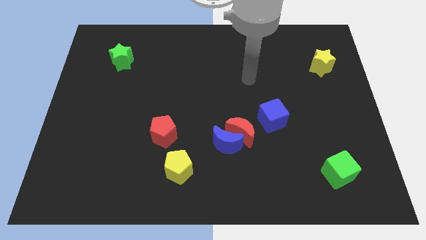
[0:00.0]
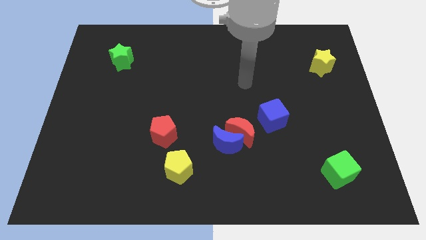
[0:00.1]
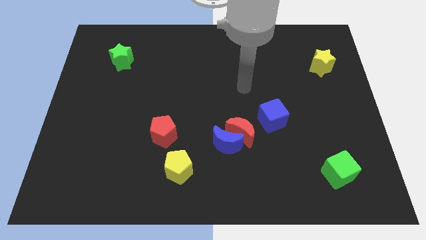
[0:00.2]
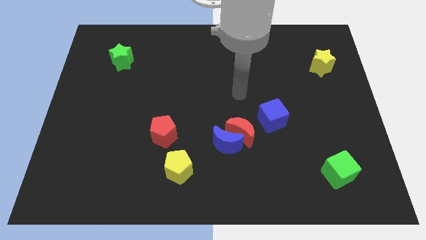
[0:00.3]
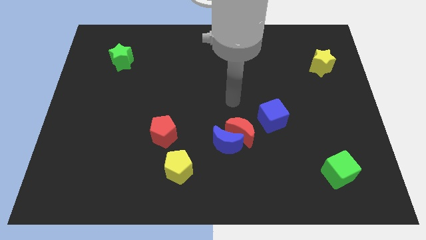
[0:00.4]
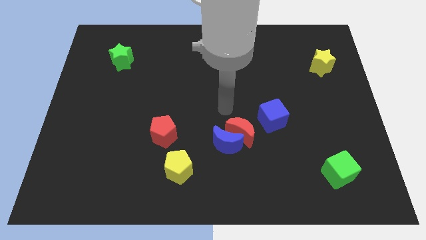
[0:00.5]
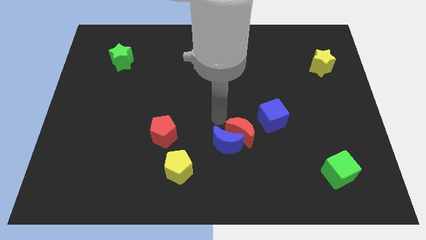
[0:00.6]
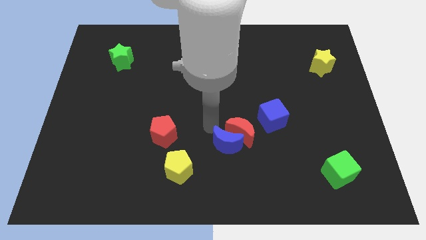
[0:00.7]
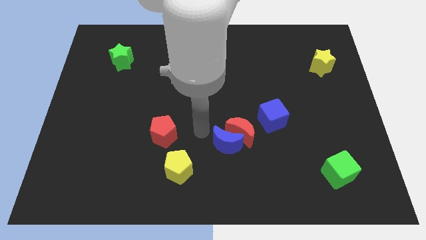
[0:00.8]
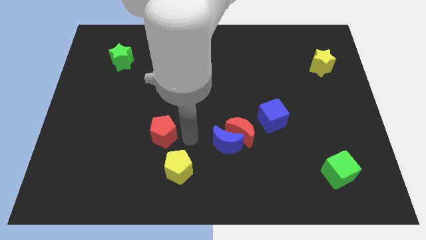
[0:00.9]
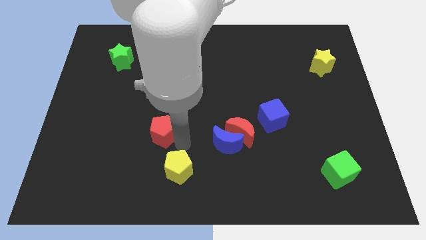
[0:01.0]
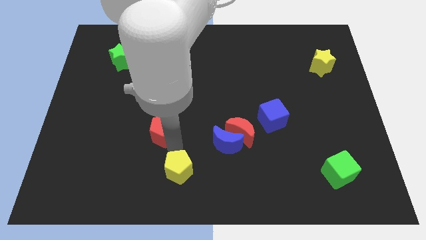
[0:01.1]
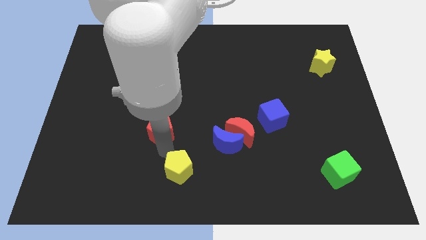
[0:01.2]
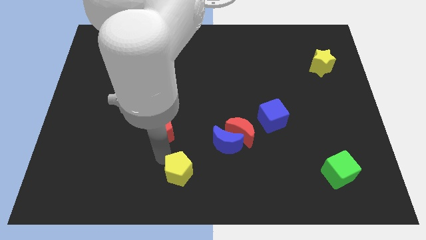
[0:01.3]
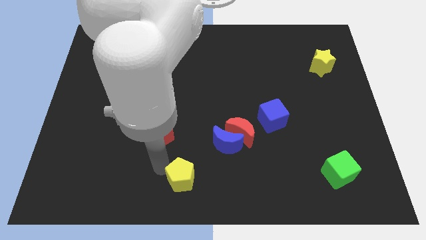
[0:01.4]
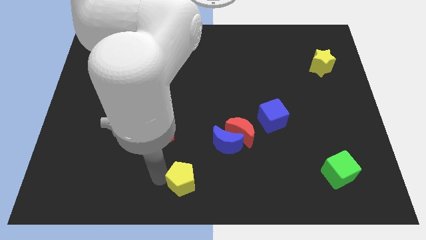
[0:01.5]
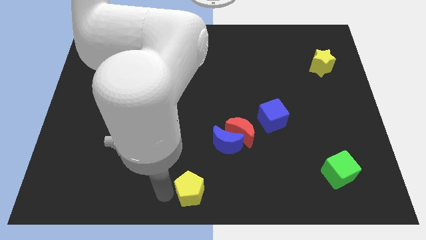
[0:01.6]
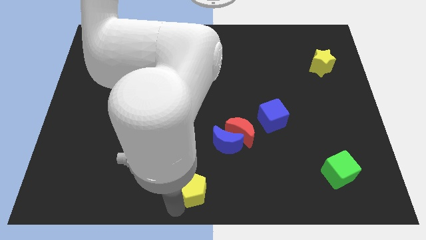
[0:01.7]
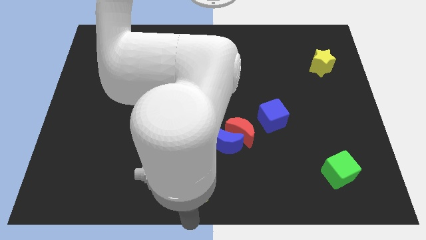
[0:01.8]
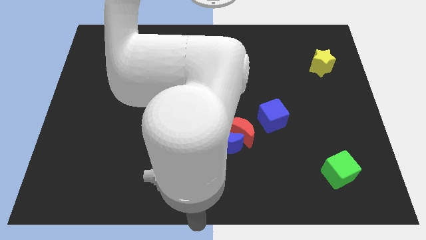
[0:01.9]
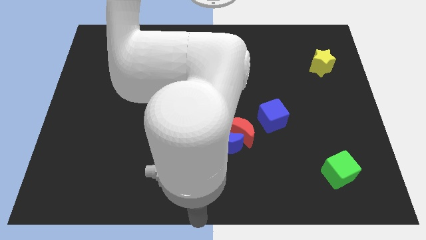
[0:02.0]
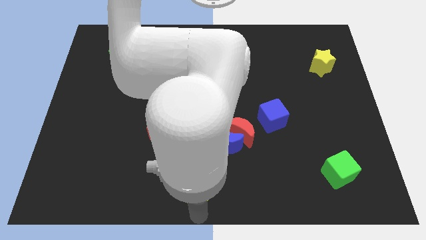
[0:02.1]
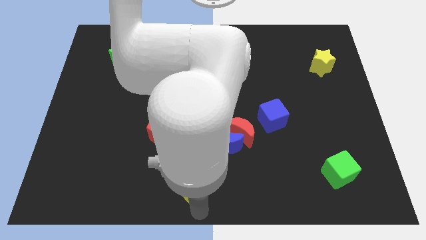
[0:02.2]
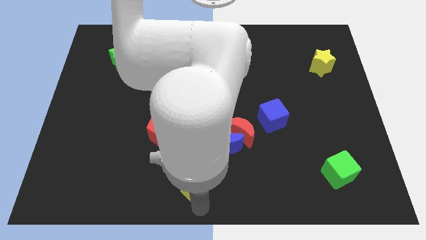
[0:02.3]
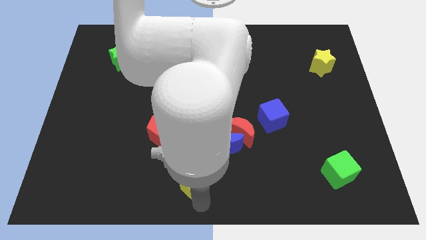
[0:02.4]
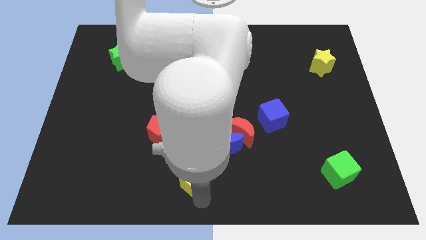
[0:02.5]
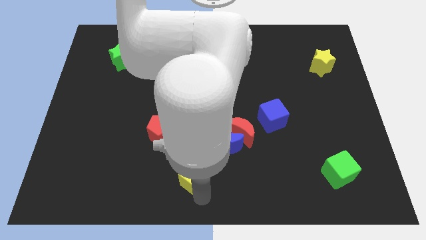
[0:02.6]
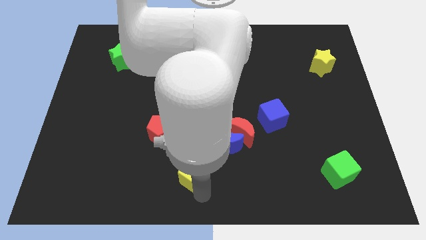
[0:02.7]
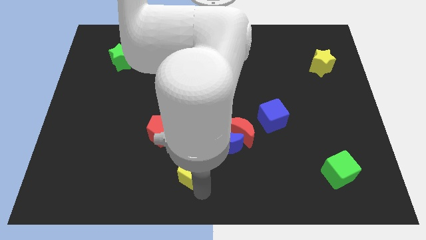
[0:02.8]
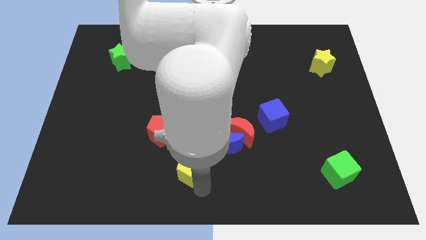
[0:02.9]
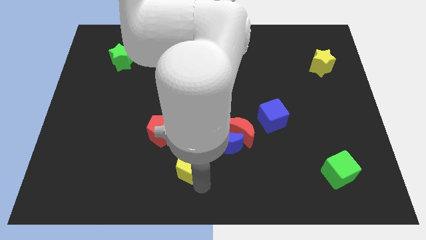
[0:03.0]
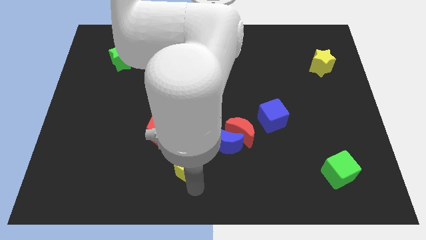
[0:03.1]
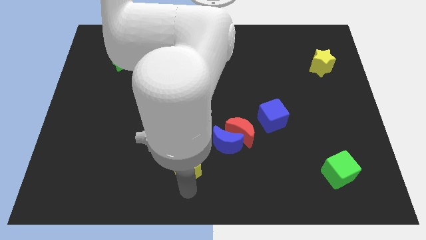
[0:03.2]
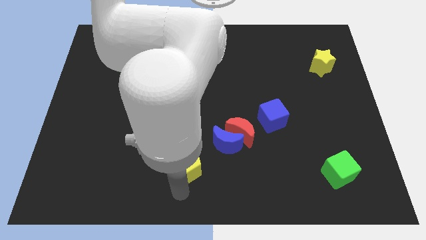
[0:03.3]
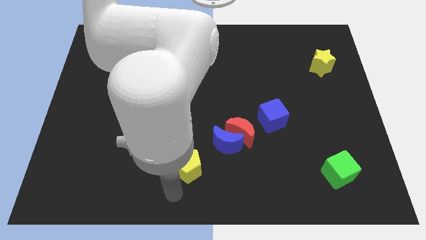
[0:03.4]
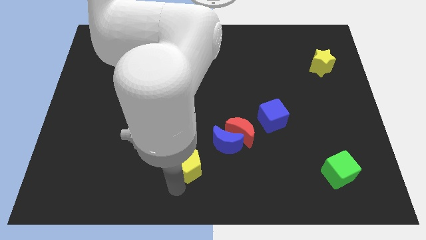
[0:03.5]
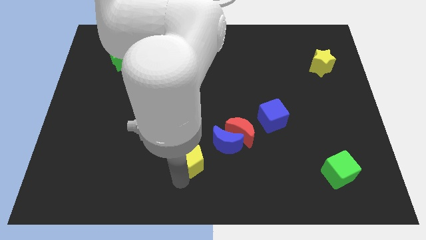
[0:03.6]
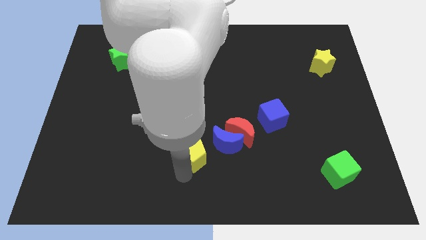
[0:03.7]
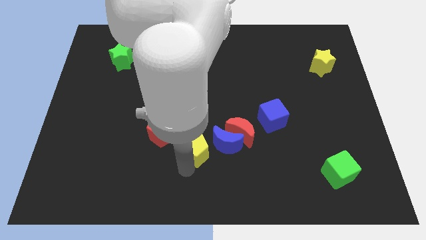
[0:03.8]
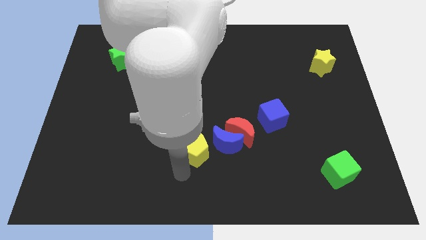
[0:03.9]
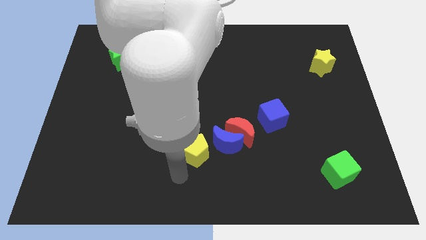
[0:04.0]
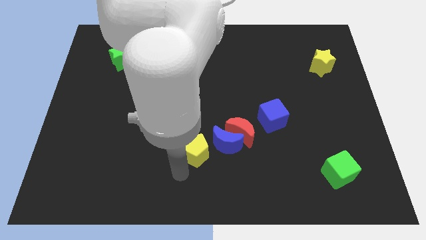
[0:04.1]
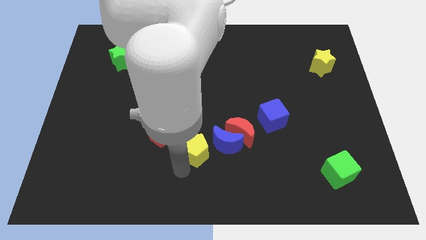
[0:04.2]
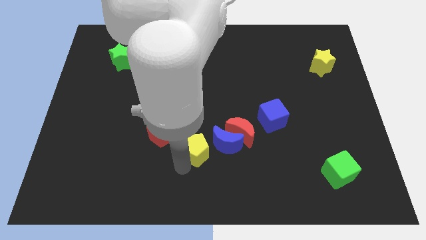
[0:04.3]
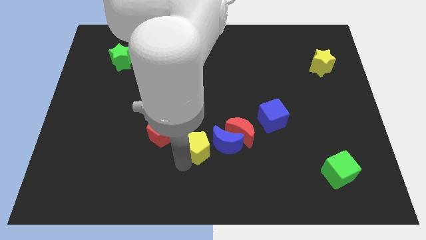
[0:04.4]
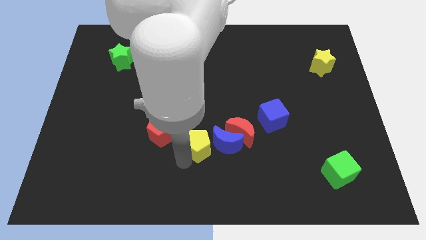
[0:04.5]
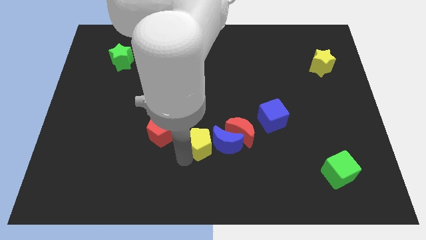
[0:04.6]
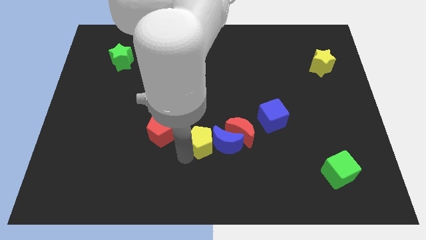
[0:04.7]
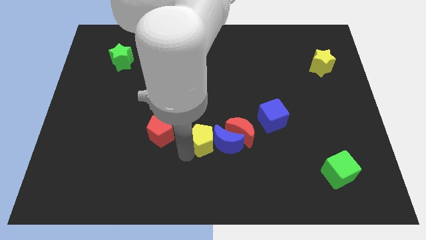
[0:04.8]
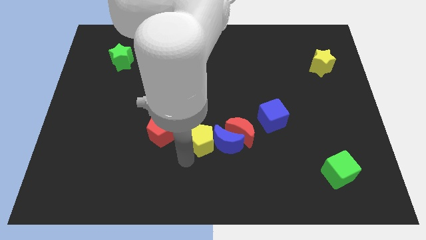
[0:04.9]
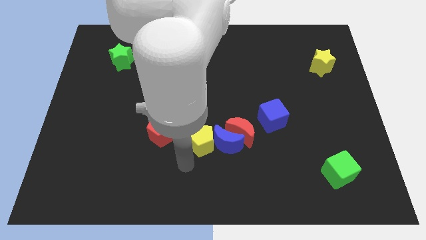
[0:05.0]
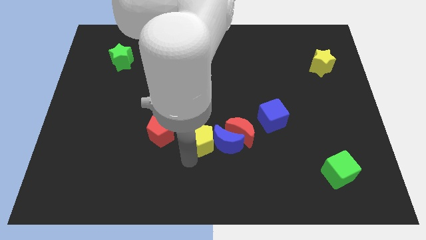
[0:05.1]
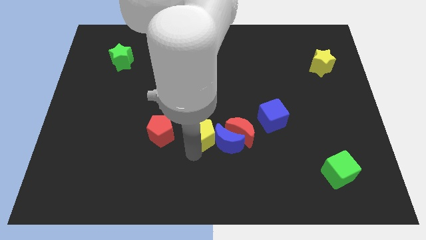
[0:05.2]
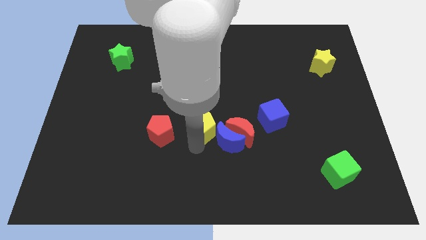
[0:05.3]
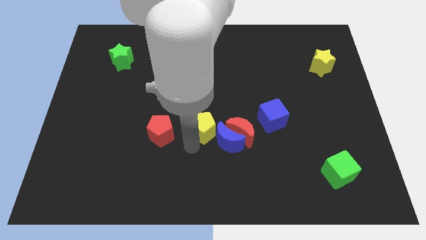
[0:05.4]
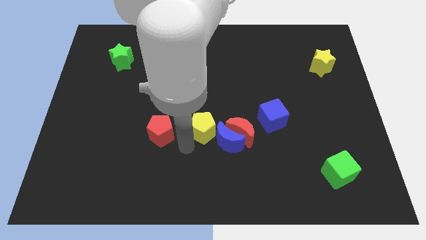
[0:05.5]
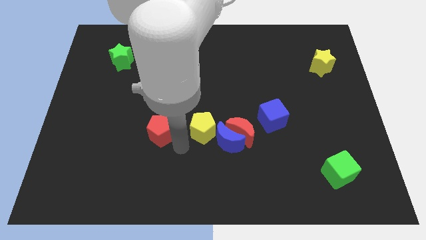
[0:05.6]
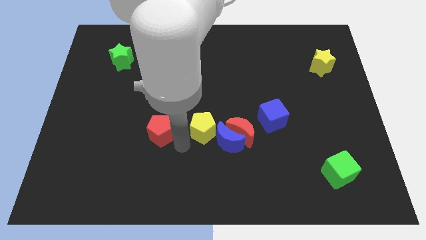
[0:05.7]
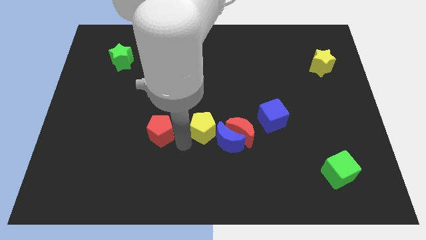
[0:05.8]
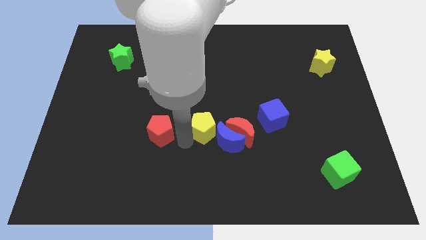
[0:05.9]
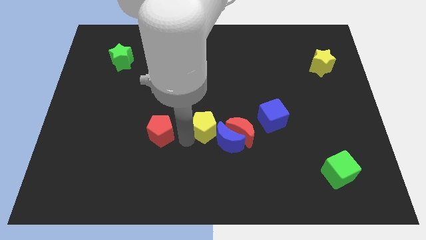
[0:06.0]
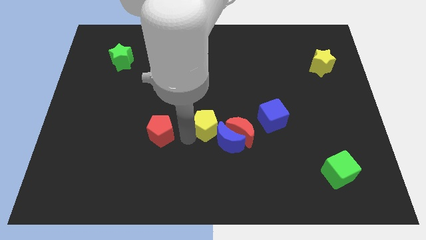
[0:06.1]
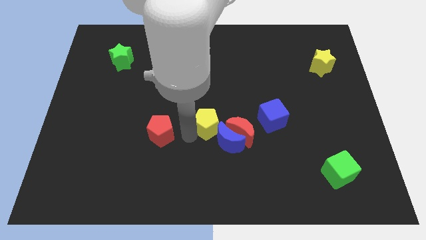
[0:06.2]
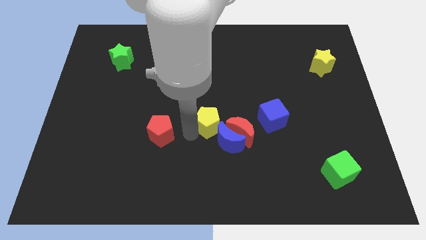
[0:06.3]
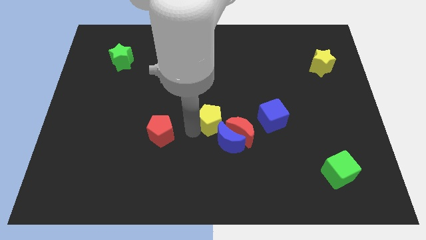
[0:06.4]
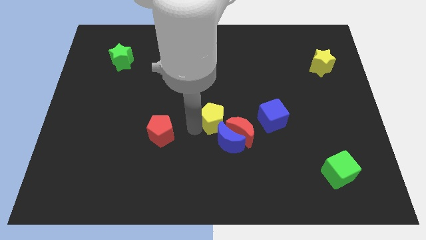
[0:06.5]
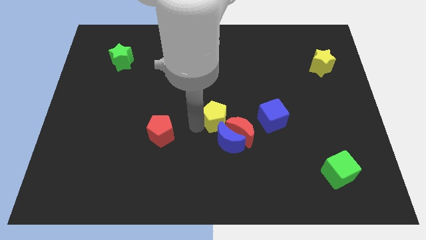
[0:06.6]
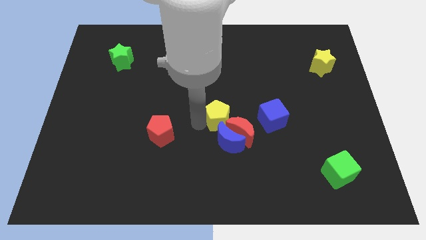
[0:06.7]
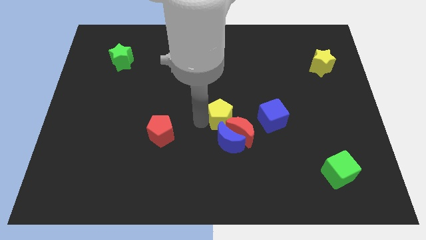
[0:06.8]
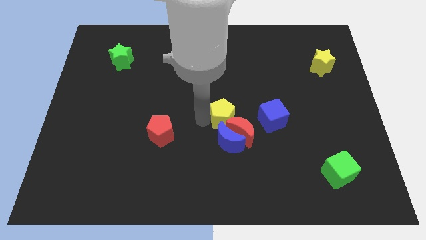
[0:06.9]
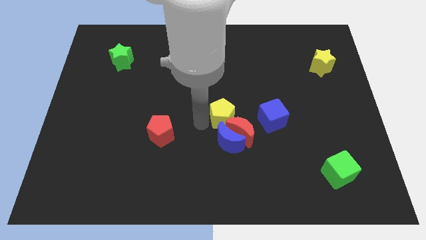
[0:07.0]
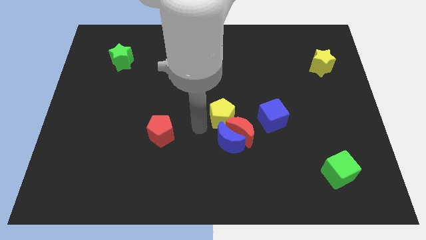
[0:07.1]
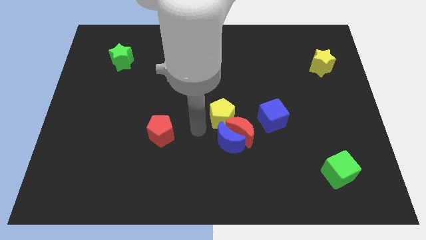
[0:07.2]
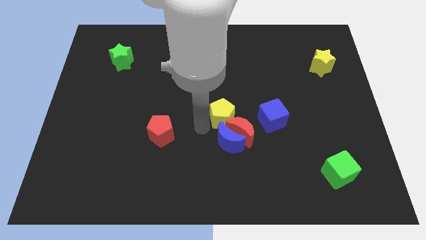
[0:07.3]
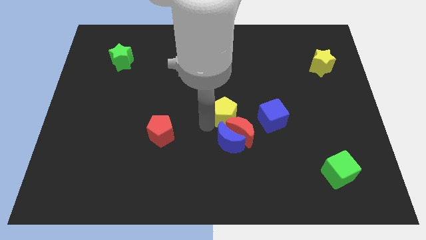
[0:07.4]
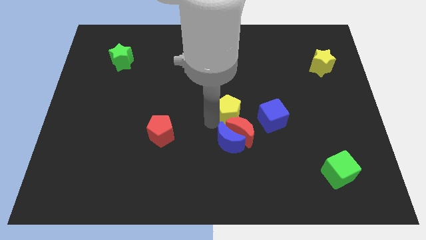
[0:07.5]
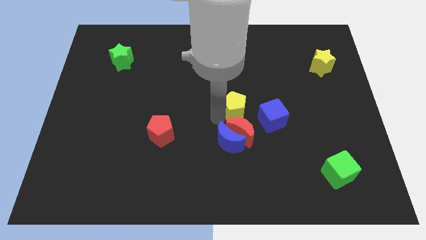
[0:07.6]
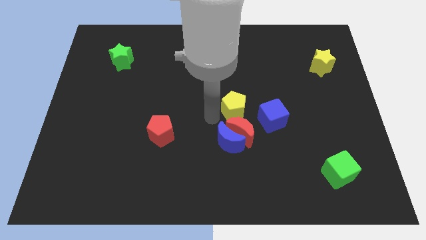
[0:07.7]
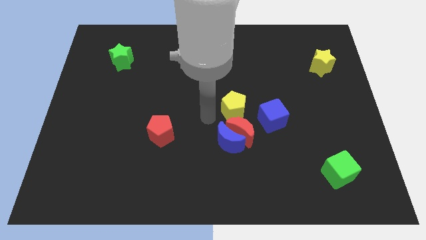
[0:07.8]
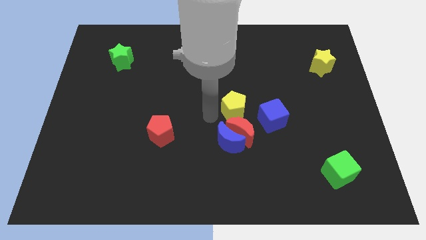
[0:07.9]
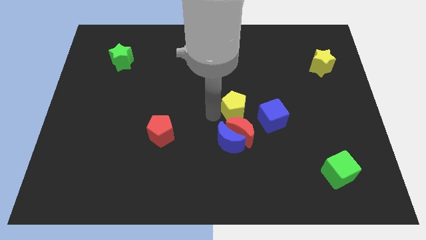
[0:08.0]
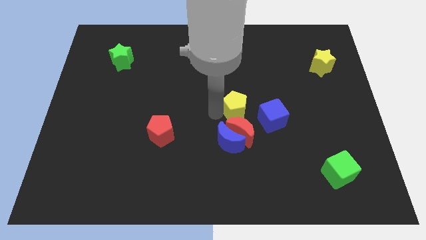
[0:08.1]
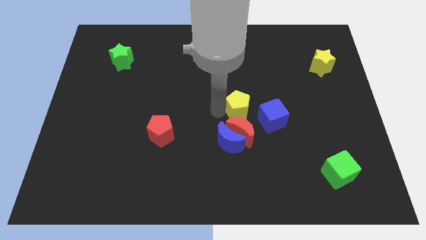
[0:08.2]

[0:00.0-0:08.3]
slide the yellow pentagon diagonally up and right
